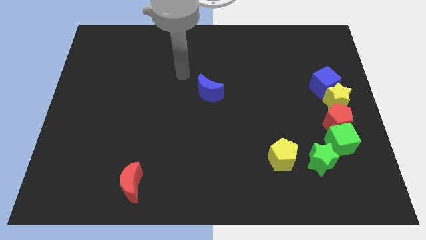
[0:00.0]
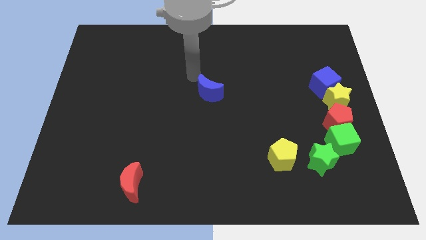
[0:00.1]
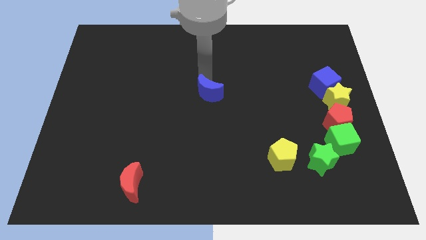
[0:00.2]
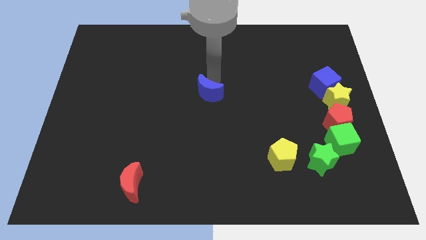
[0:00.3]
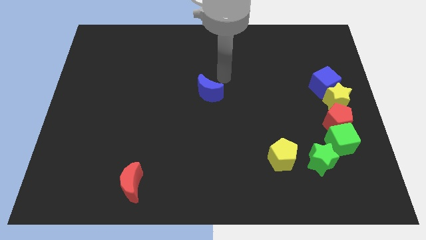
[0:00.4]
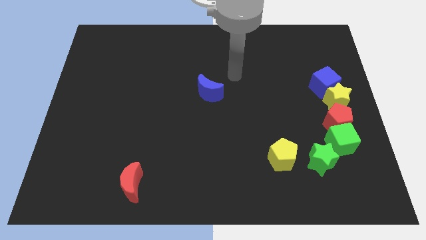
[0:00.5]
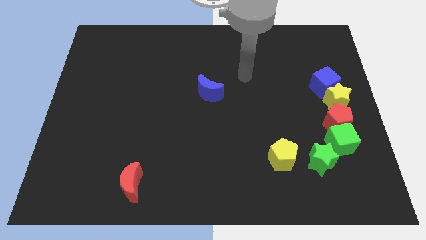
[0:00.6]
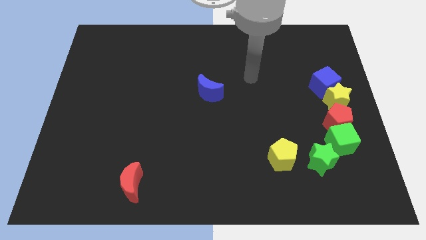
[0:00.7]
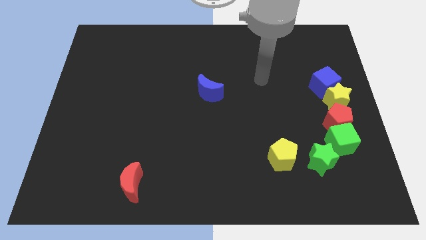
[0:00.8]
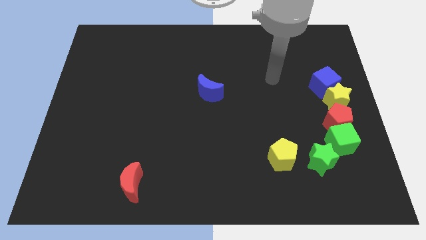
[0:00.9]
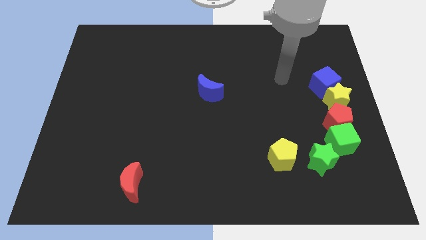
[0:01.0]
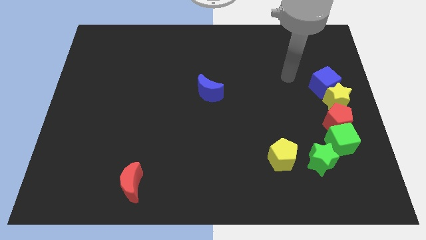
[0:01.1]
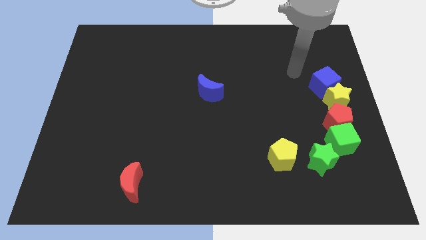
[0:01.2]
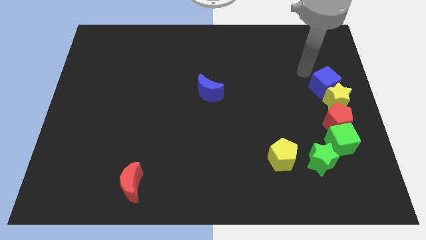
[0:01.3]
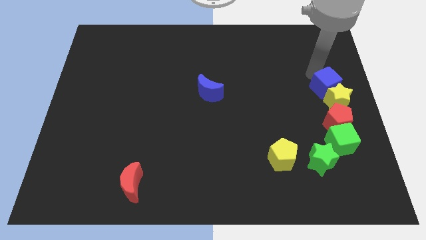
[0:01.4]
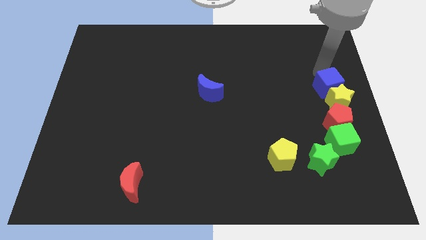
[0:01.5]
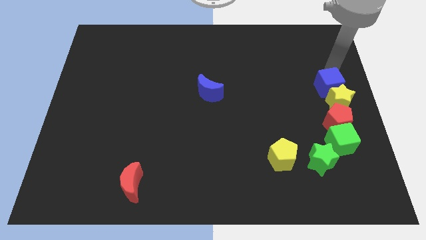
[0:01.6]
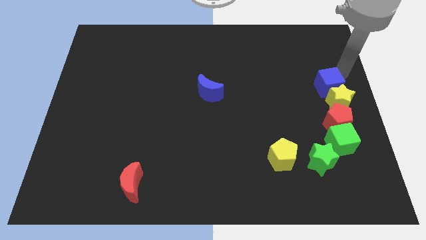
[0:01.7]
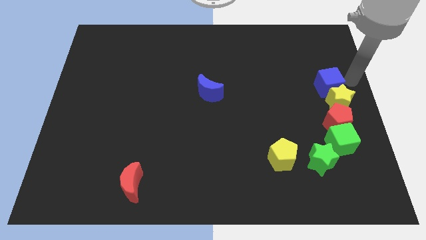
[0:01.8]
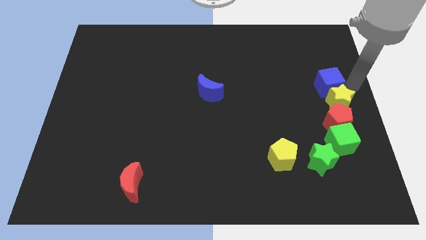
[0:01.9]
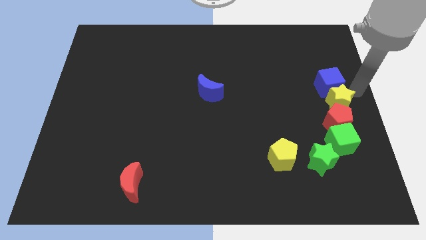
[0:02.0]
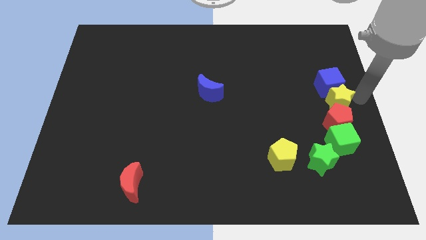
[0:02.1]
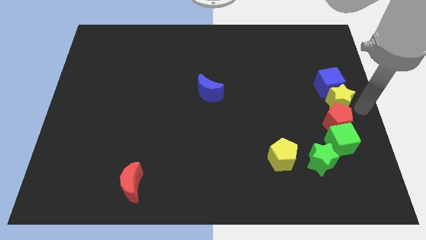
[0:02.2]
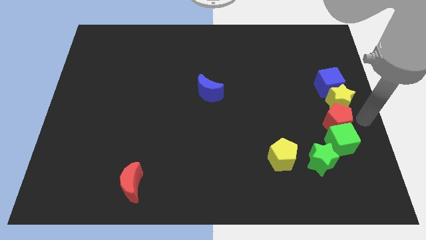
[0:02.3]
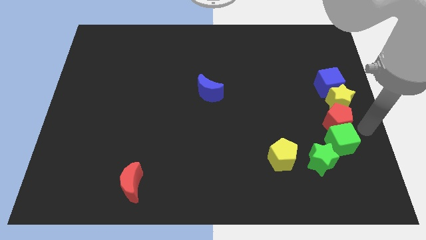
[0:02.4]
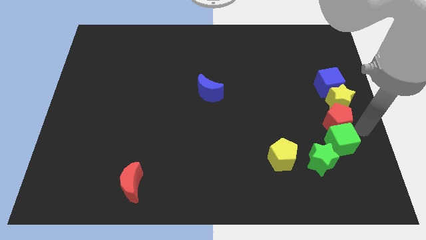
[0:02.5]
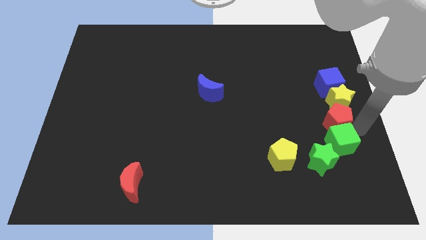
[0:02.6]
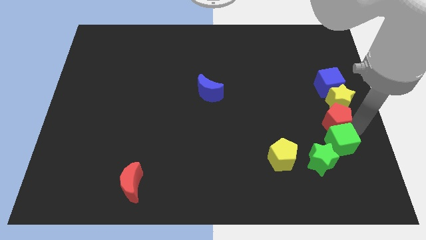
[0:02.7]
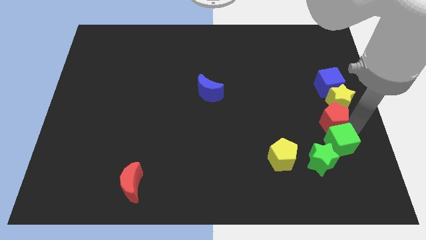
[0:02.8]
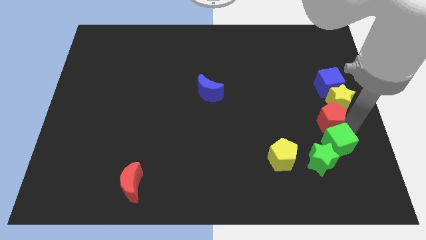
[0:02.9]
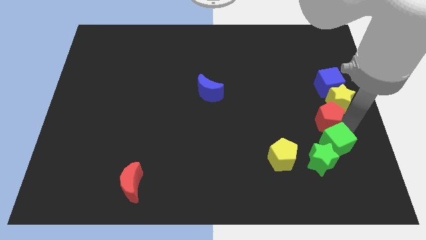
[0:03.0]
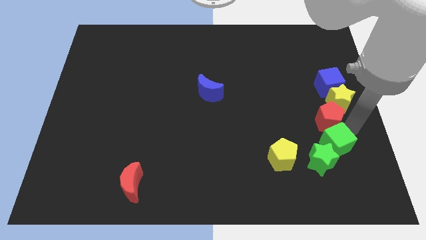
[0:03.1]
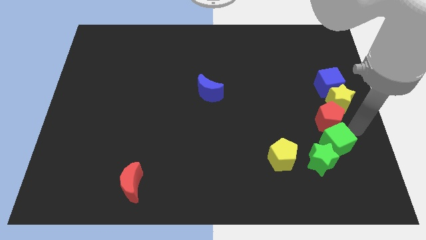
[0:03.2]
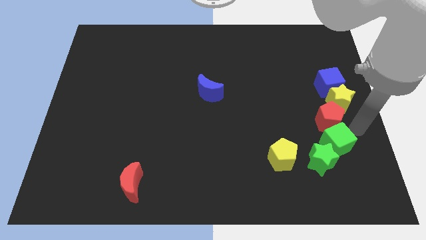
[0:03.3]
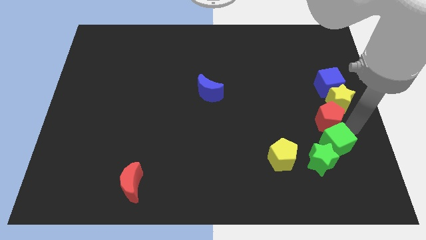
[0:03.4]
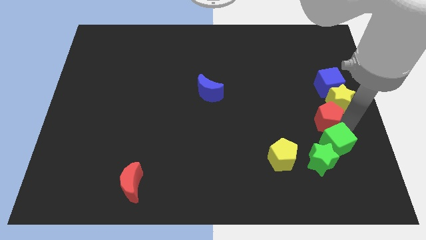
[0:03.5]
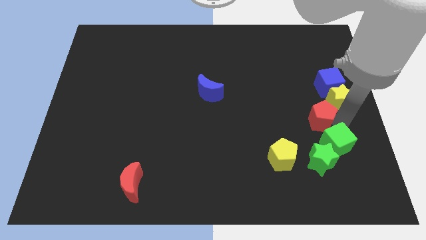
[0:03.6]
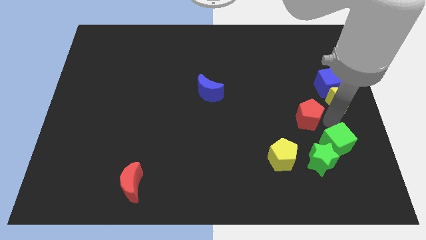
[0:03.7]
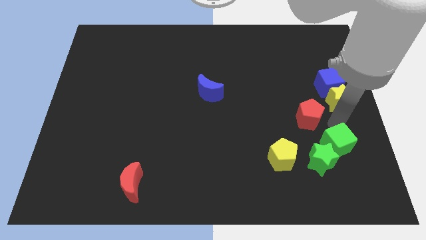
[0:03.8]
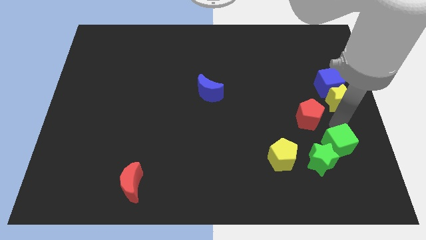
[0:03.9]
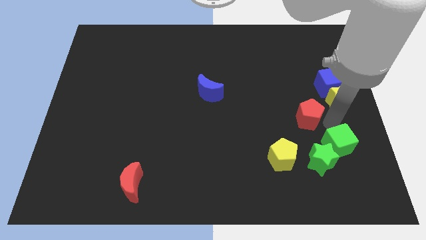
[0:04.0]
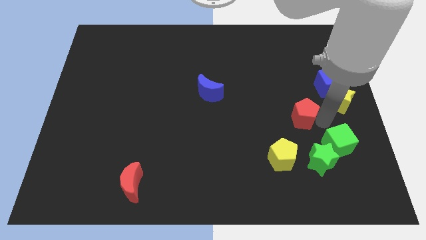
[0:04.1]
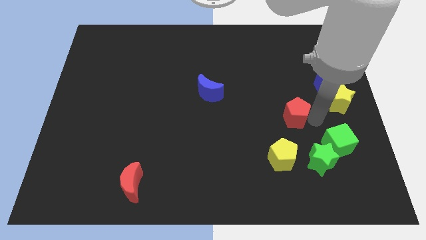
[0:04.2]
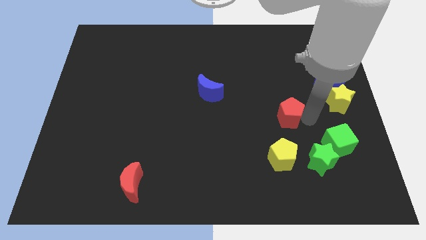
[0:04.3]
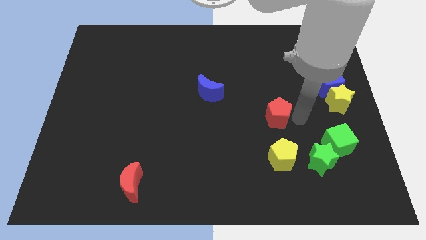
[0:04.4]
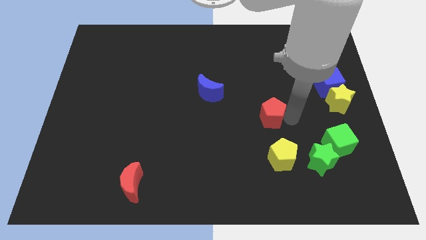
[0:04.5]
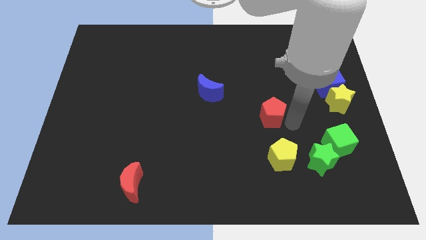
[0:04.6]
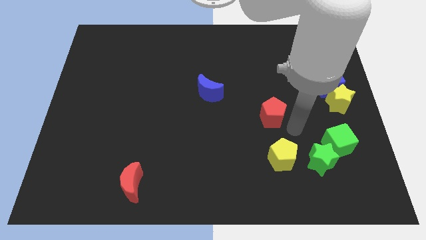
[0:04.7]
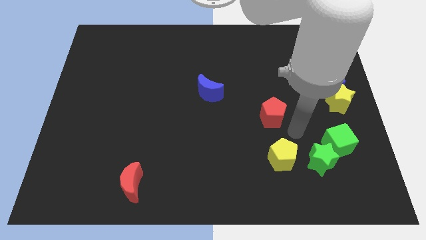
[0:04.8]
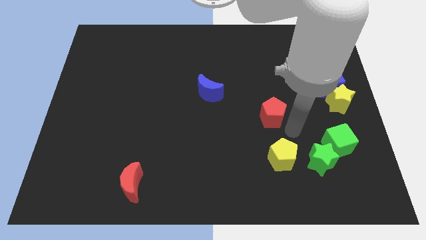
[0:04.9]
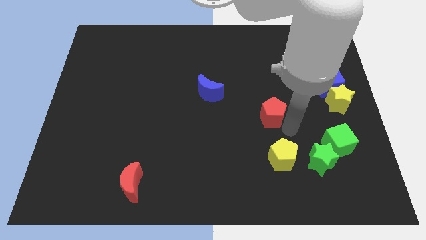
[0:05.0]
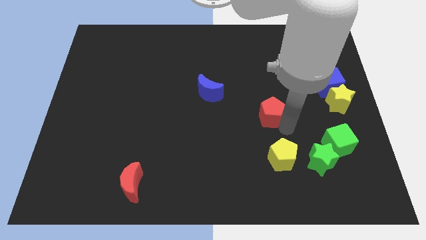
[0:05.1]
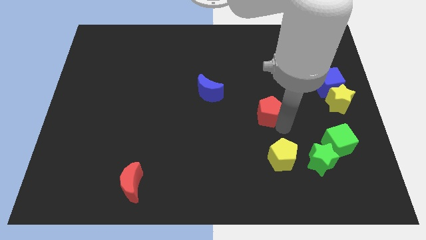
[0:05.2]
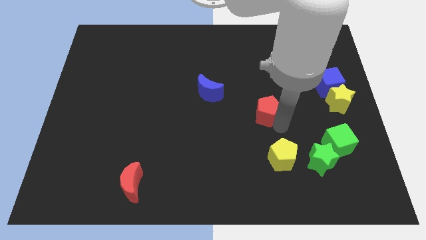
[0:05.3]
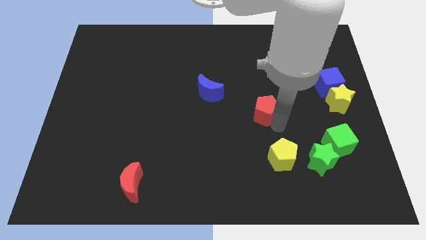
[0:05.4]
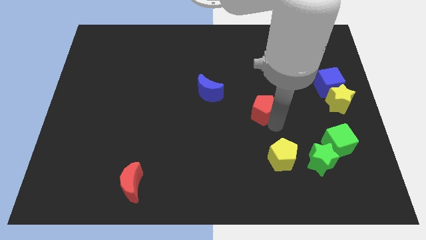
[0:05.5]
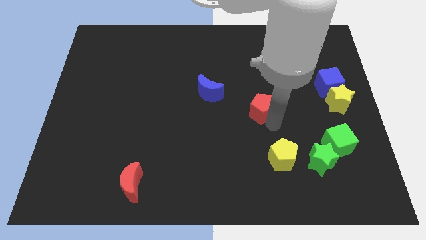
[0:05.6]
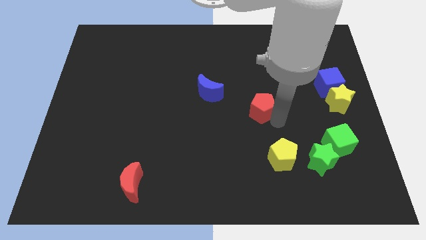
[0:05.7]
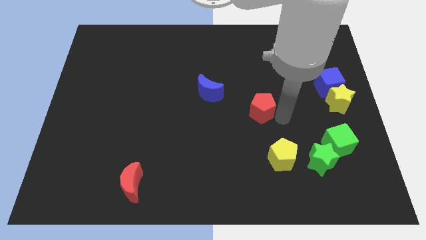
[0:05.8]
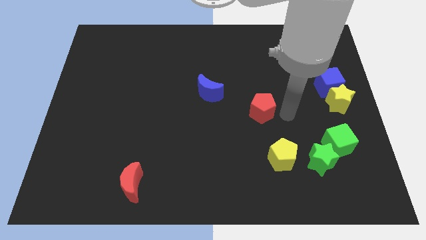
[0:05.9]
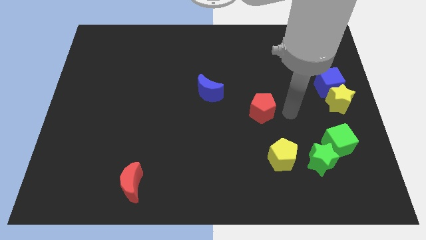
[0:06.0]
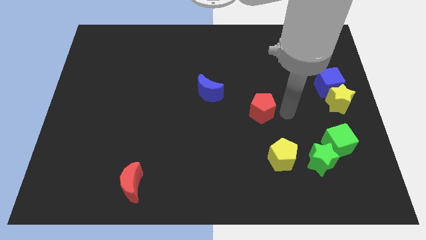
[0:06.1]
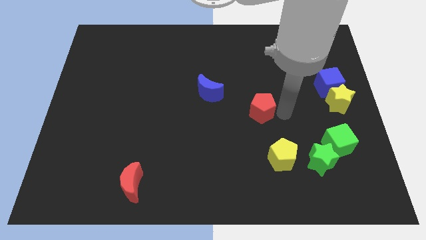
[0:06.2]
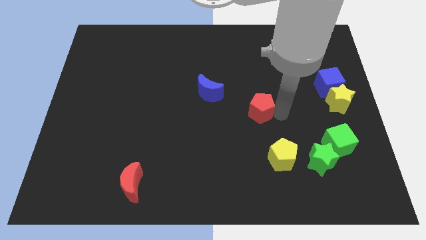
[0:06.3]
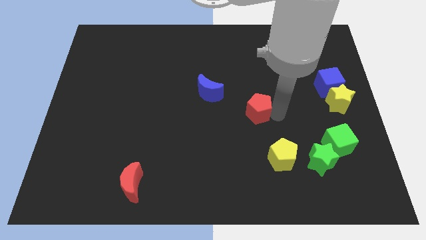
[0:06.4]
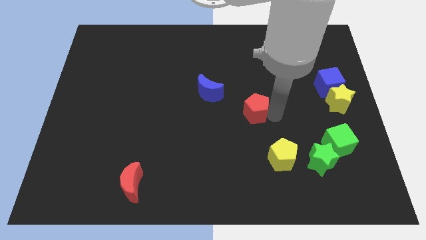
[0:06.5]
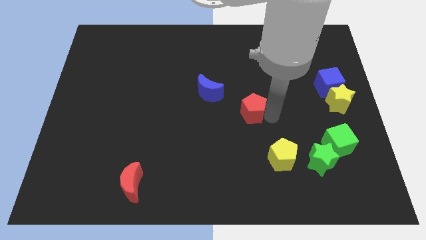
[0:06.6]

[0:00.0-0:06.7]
put the red pentagon diagonally down and to the right of the blue moon
